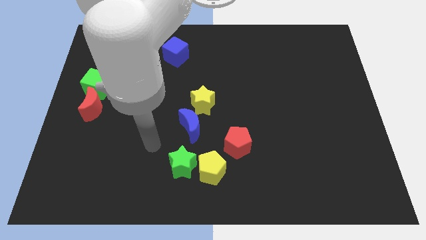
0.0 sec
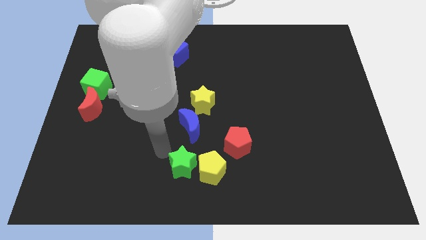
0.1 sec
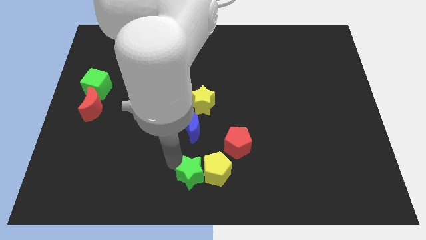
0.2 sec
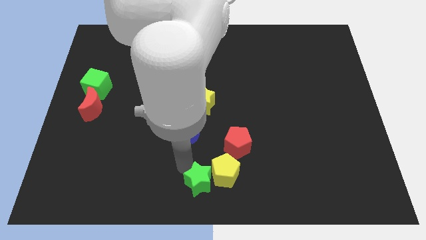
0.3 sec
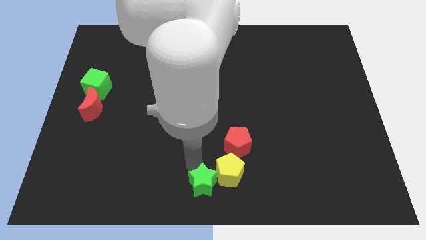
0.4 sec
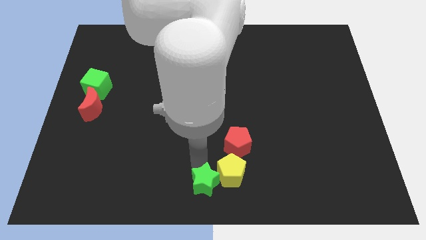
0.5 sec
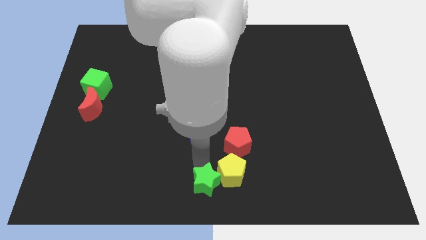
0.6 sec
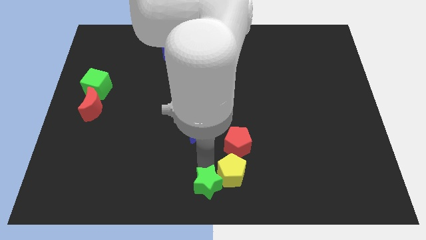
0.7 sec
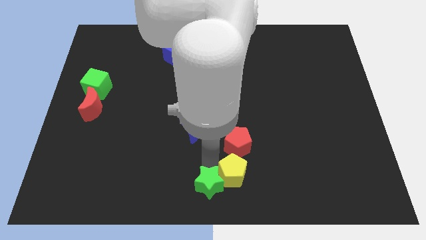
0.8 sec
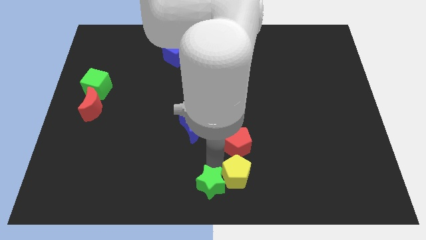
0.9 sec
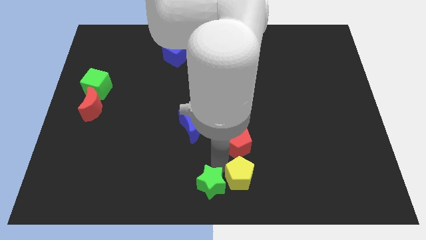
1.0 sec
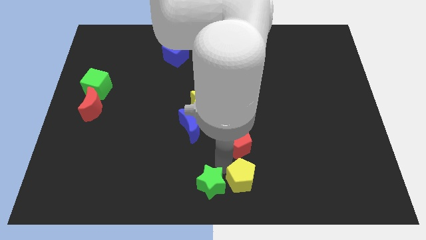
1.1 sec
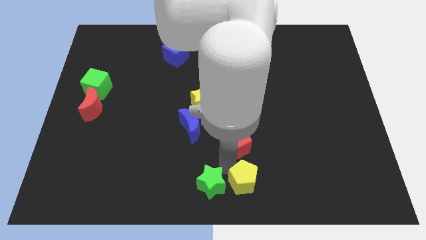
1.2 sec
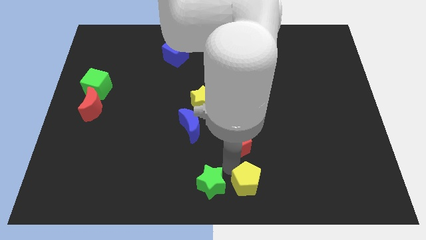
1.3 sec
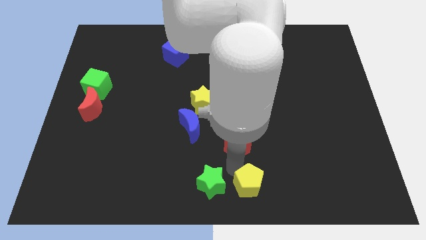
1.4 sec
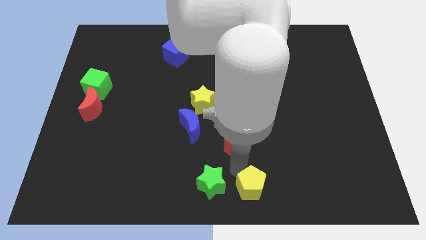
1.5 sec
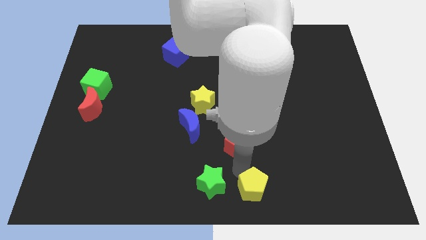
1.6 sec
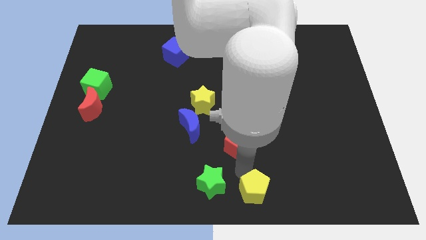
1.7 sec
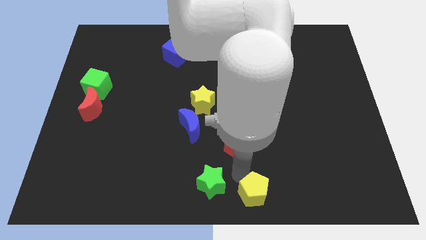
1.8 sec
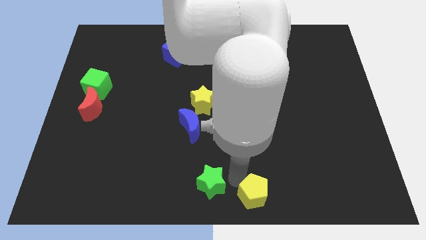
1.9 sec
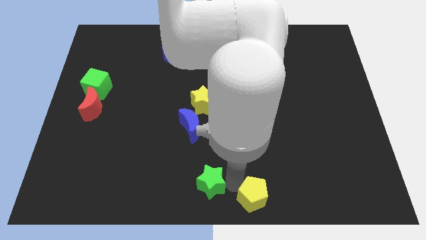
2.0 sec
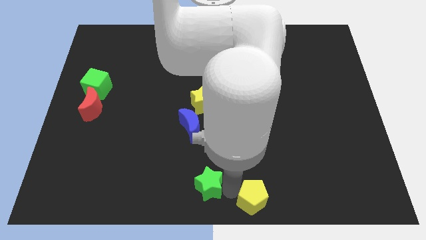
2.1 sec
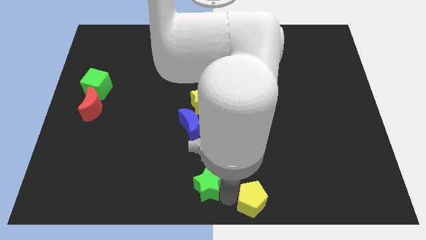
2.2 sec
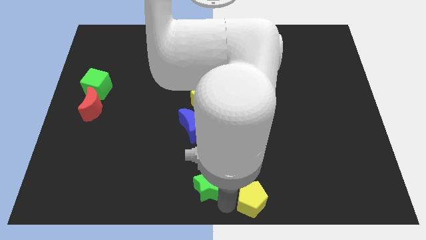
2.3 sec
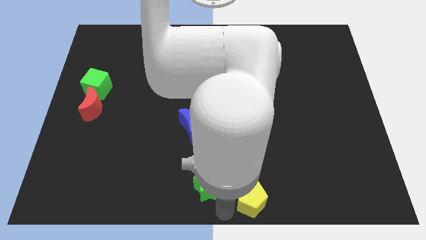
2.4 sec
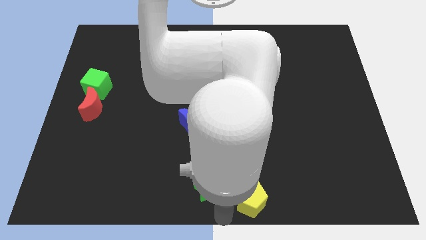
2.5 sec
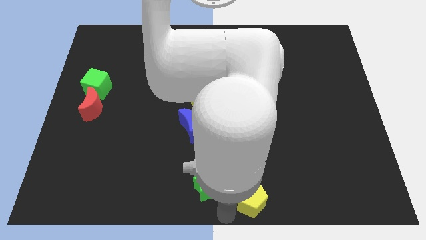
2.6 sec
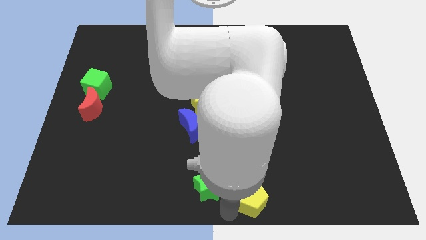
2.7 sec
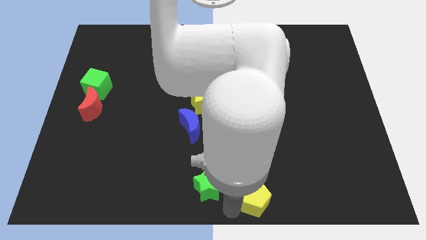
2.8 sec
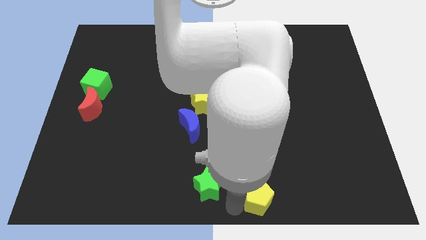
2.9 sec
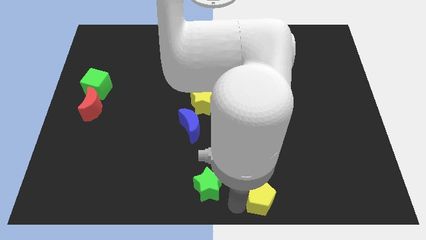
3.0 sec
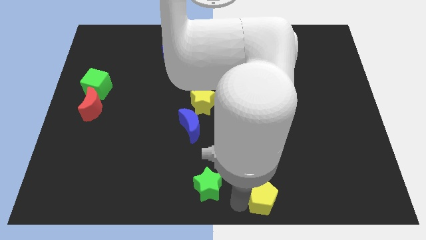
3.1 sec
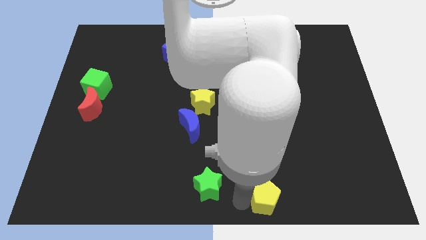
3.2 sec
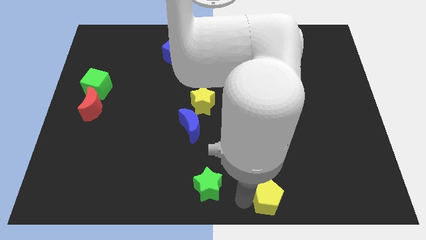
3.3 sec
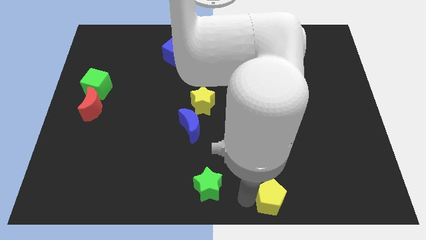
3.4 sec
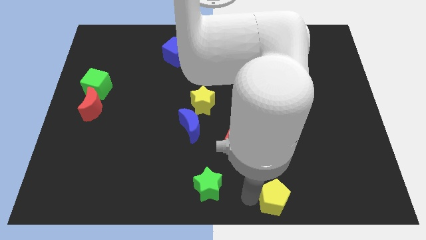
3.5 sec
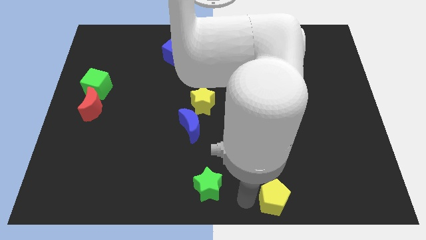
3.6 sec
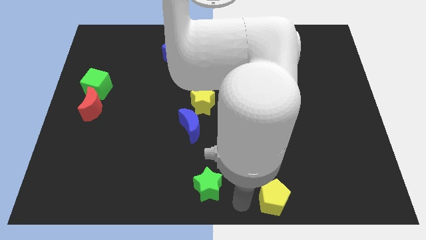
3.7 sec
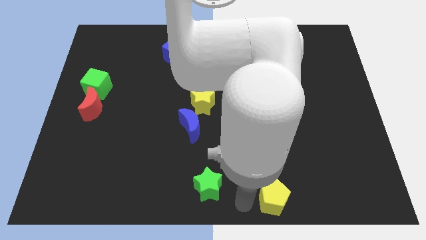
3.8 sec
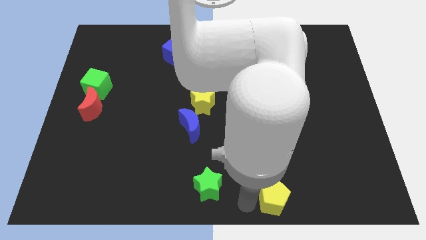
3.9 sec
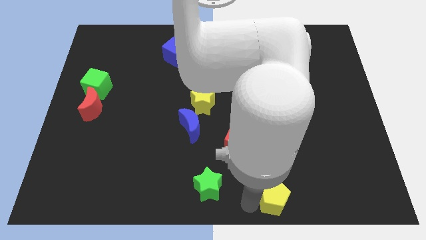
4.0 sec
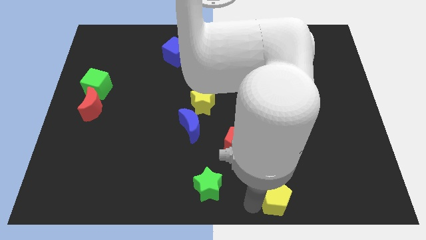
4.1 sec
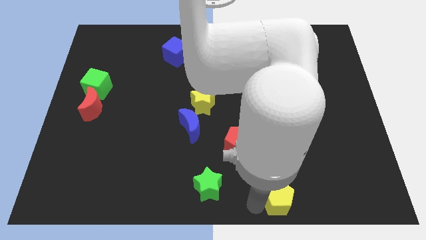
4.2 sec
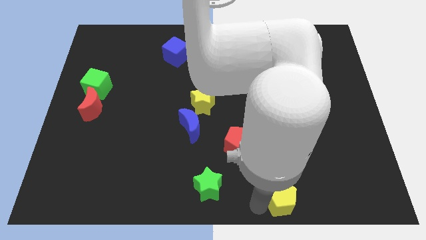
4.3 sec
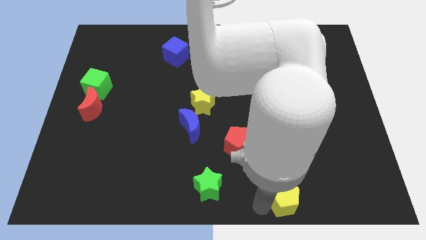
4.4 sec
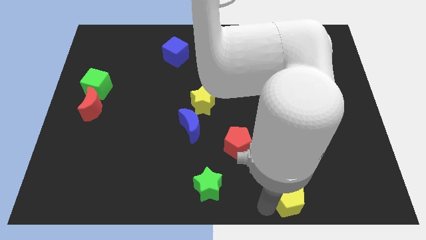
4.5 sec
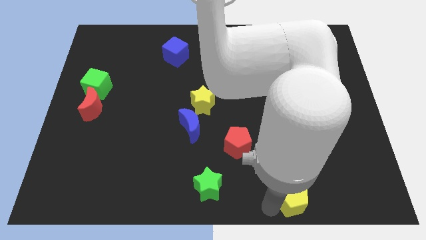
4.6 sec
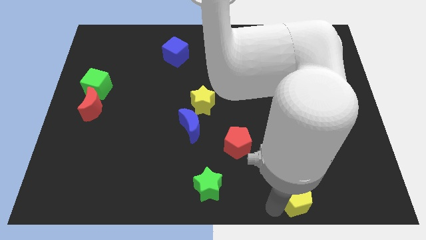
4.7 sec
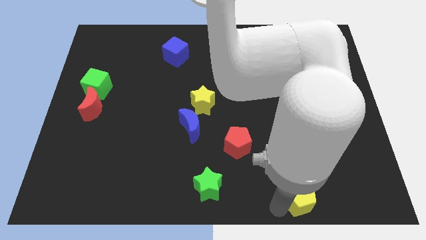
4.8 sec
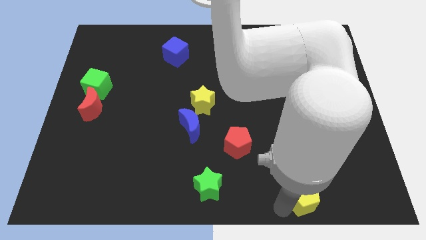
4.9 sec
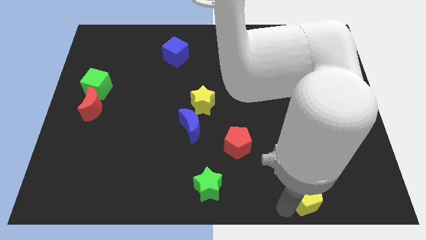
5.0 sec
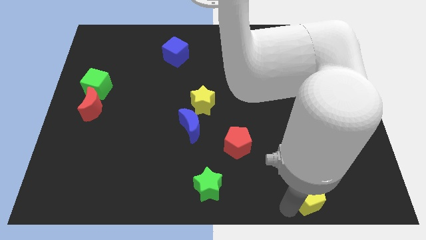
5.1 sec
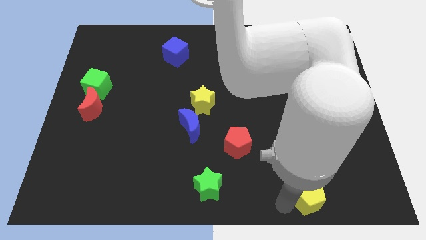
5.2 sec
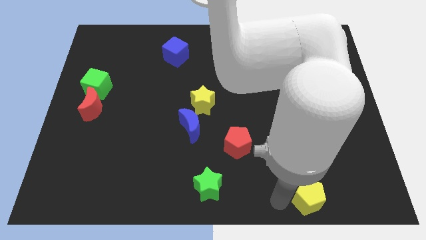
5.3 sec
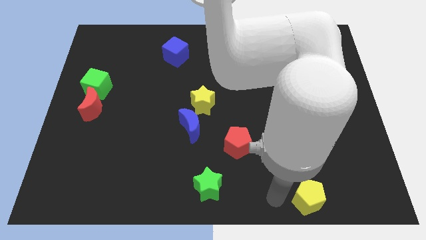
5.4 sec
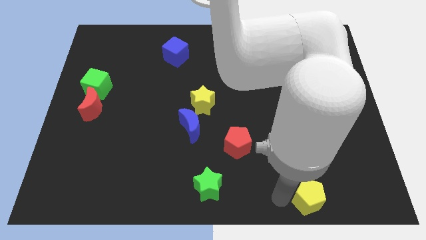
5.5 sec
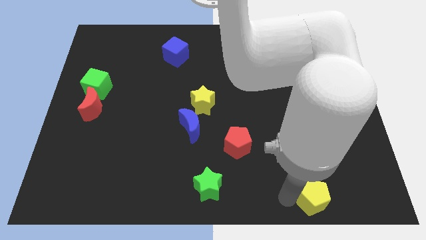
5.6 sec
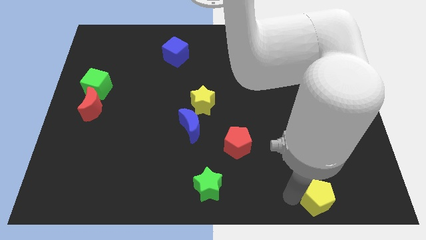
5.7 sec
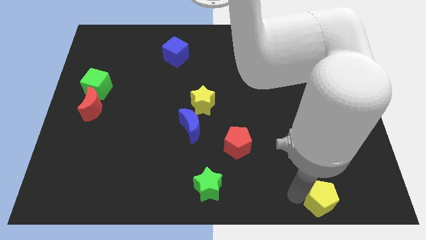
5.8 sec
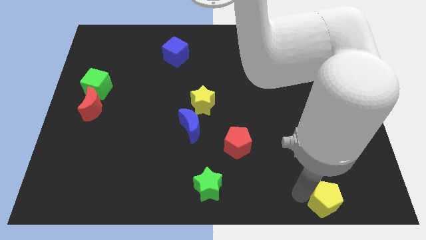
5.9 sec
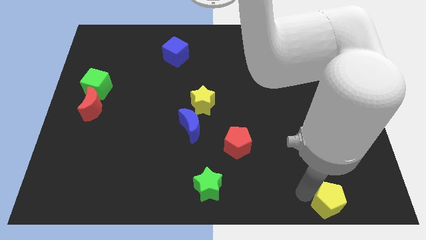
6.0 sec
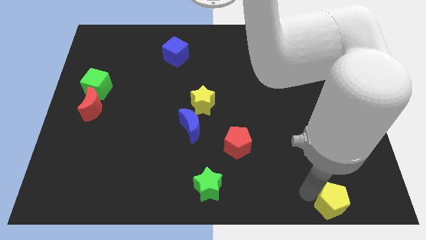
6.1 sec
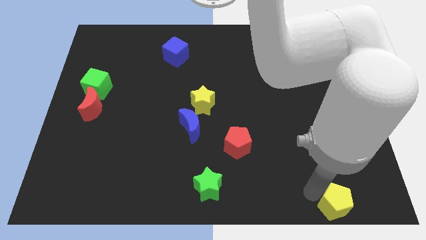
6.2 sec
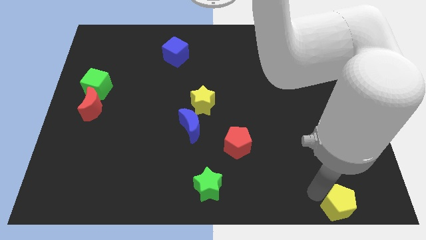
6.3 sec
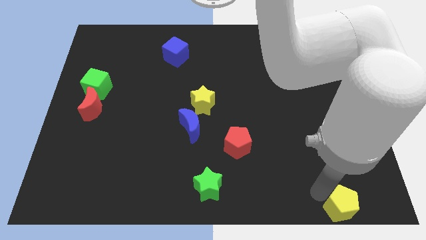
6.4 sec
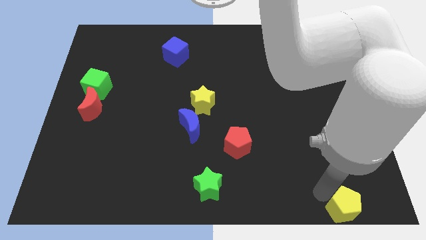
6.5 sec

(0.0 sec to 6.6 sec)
move the yellow pentagon to the bottom right corner
